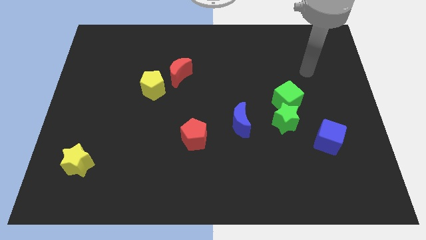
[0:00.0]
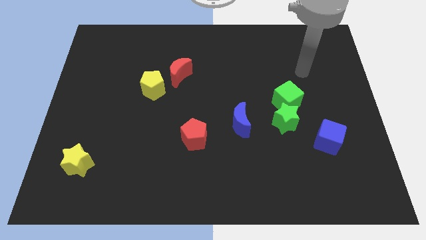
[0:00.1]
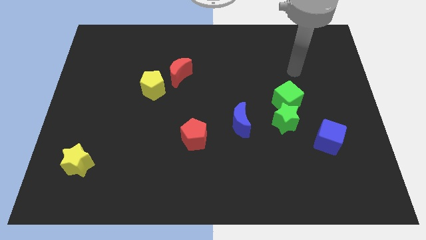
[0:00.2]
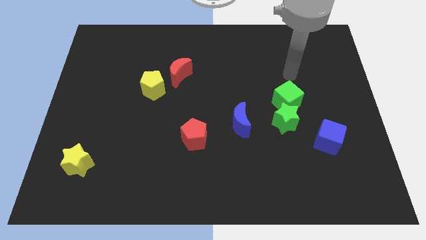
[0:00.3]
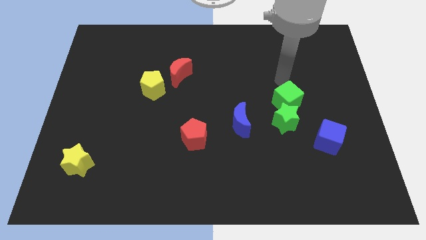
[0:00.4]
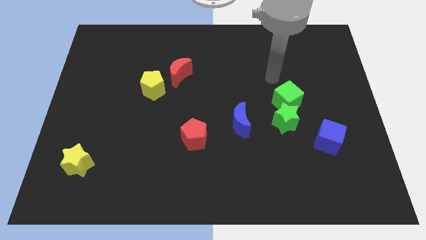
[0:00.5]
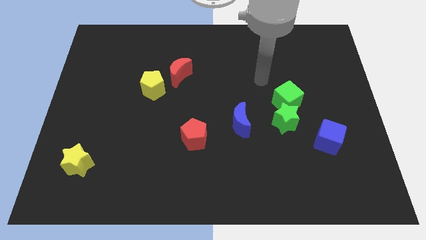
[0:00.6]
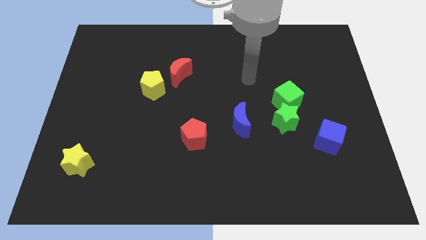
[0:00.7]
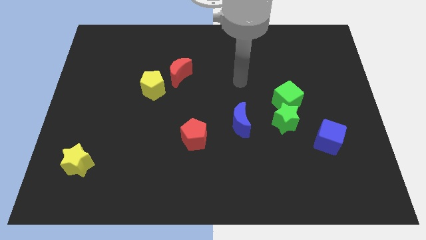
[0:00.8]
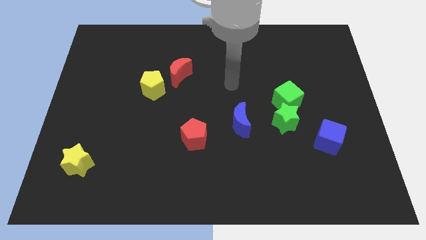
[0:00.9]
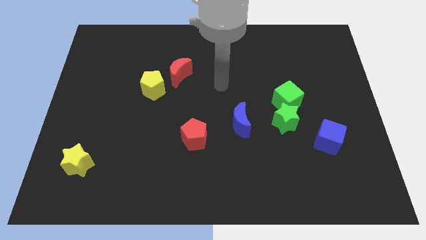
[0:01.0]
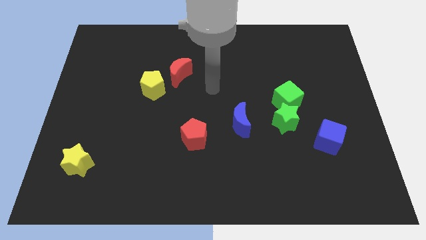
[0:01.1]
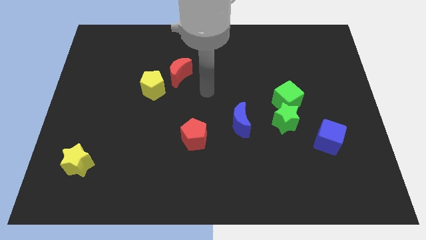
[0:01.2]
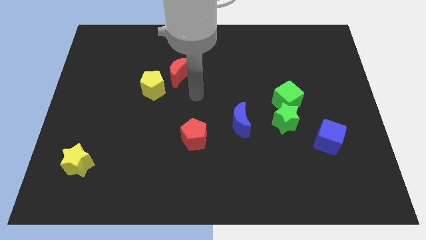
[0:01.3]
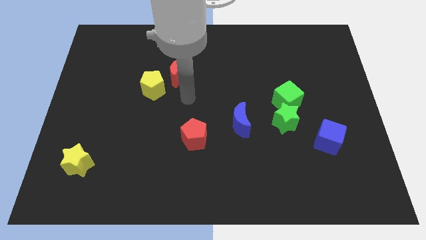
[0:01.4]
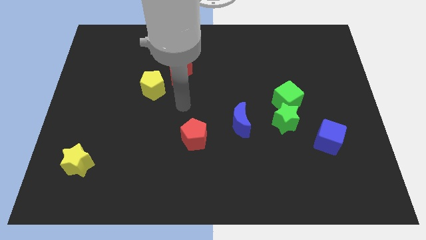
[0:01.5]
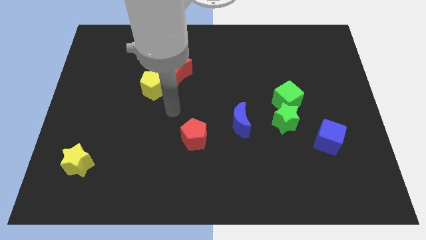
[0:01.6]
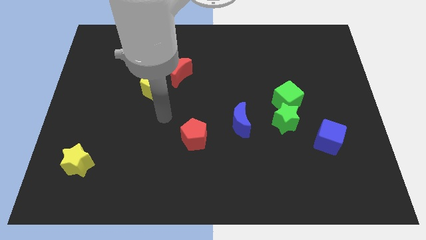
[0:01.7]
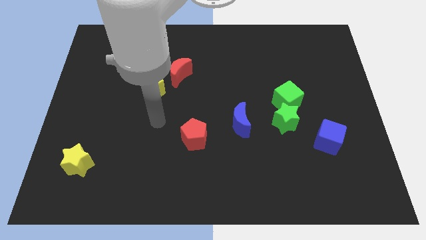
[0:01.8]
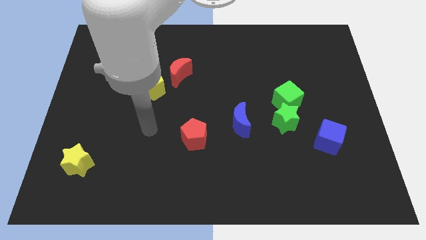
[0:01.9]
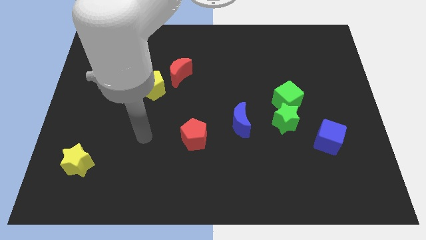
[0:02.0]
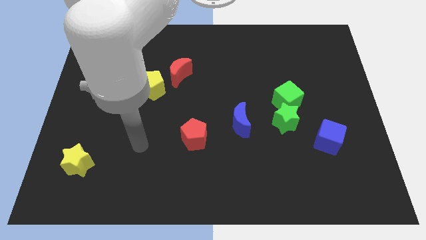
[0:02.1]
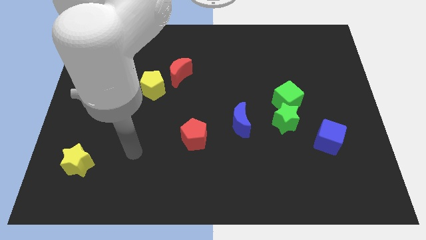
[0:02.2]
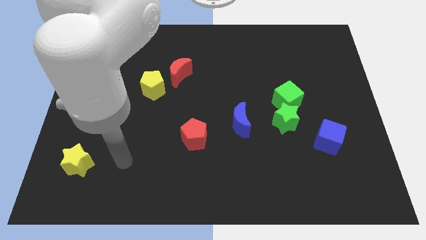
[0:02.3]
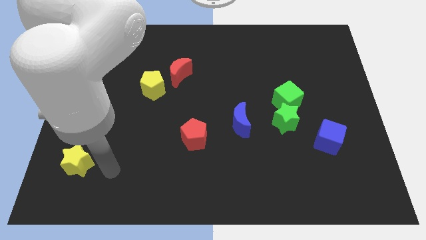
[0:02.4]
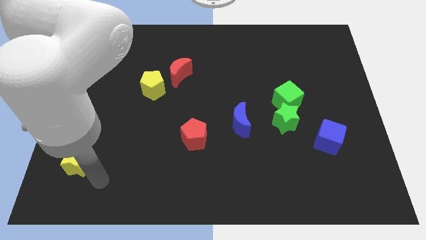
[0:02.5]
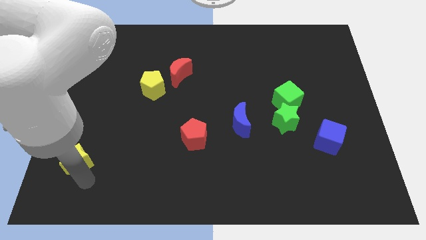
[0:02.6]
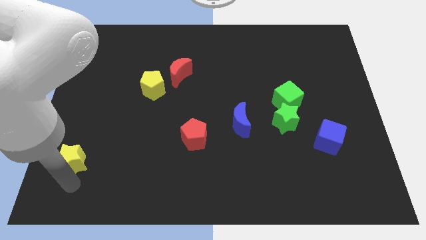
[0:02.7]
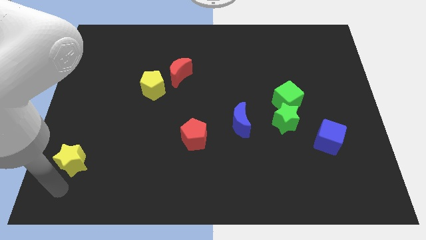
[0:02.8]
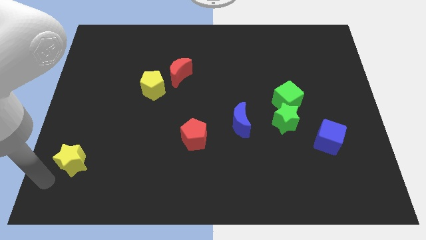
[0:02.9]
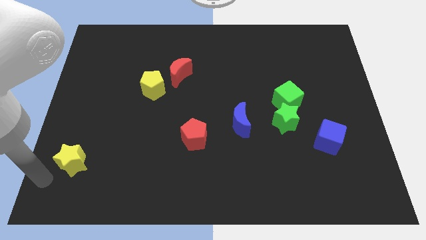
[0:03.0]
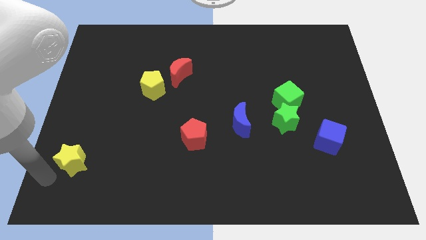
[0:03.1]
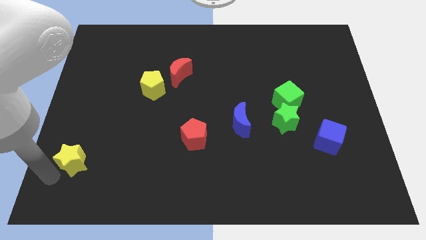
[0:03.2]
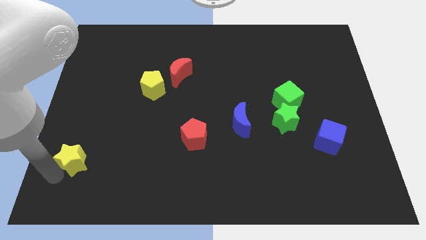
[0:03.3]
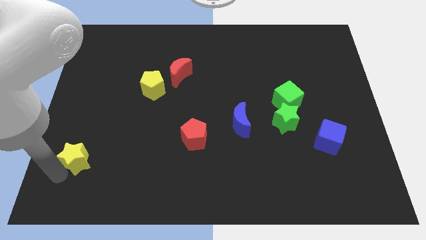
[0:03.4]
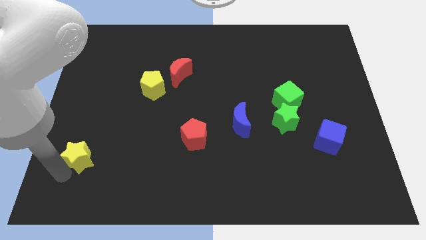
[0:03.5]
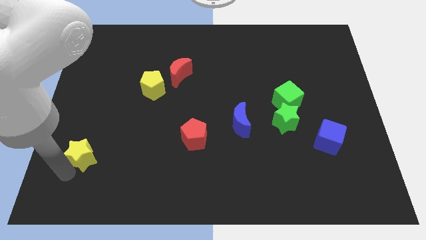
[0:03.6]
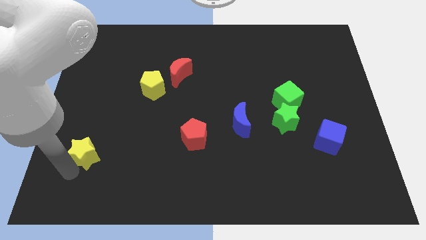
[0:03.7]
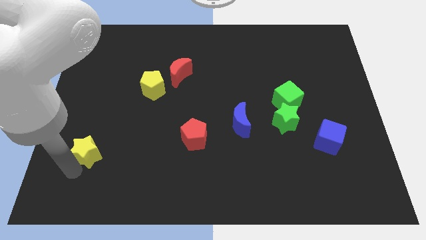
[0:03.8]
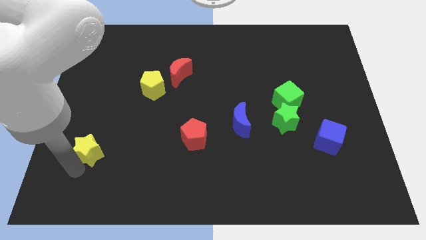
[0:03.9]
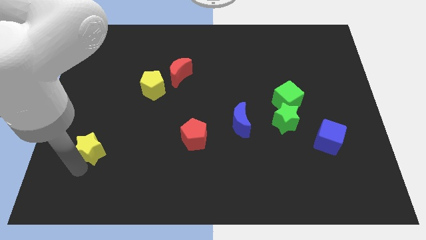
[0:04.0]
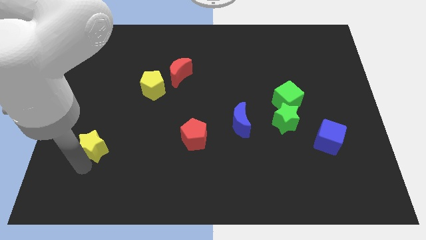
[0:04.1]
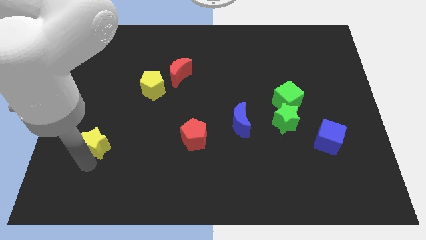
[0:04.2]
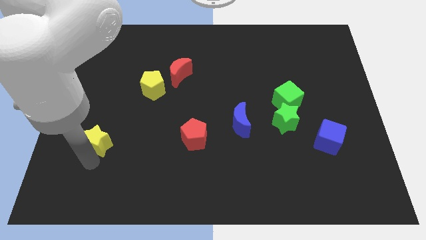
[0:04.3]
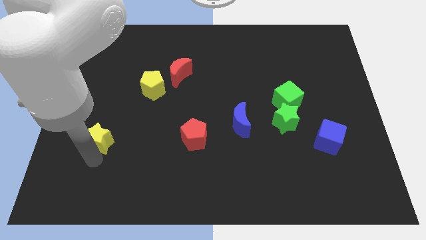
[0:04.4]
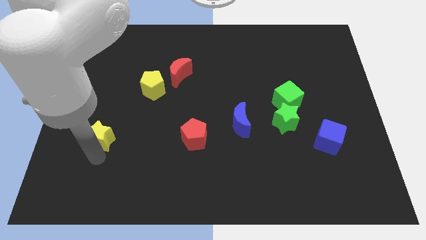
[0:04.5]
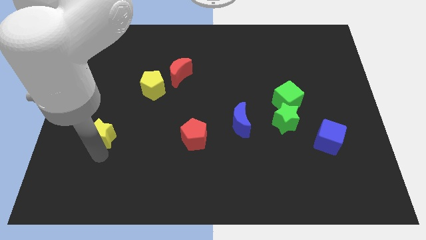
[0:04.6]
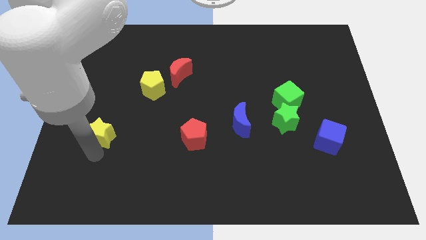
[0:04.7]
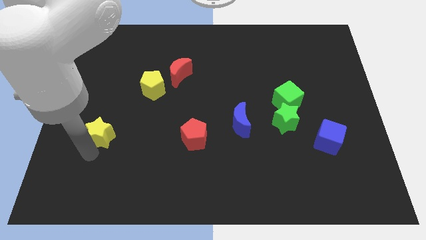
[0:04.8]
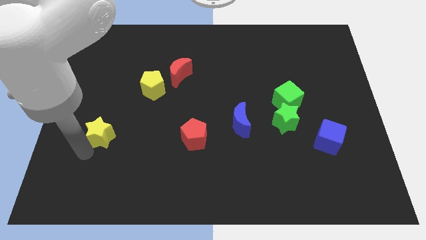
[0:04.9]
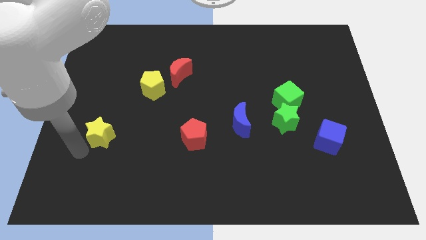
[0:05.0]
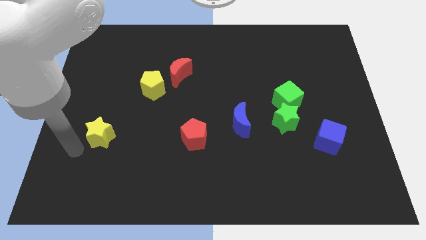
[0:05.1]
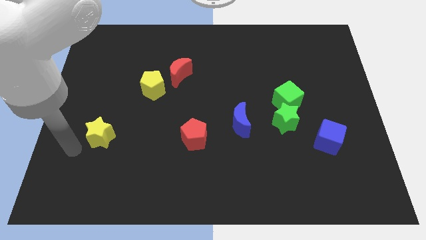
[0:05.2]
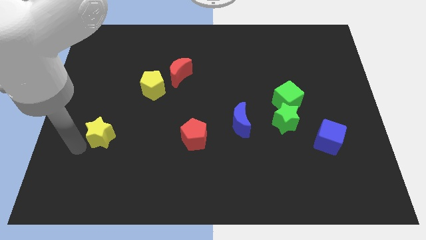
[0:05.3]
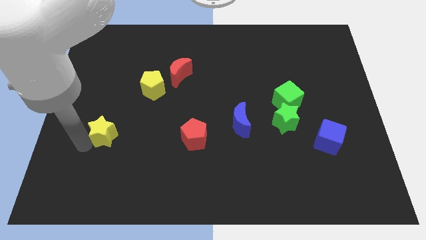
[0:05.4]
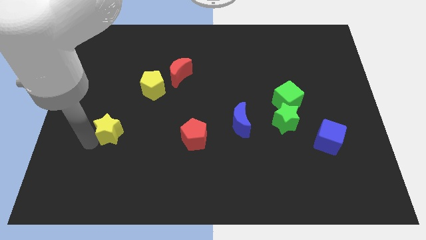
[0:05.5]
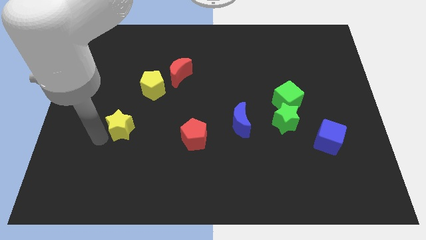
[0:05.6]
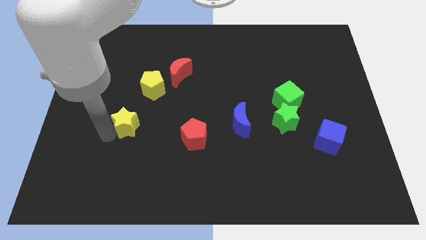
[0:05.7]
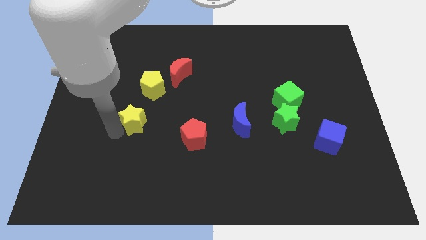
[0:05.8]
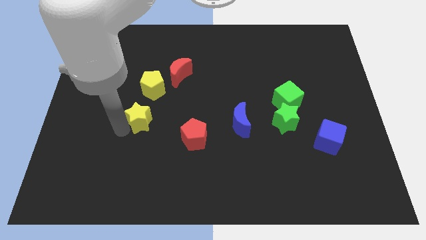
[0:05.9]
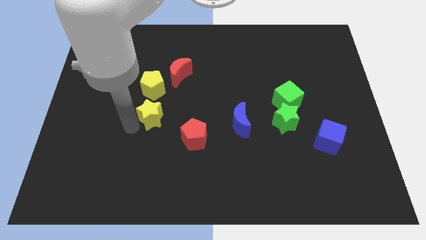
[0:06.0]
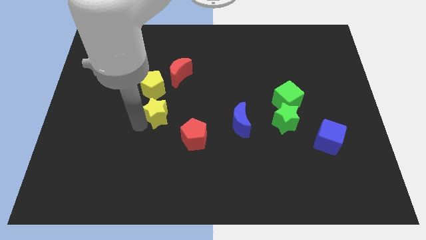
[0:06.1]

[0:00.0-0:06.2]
push the yellow star up and to the right

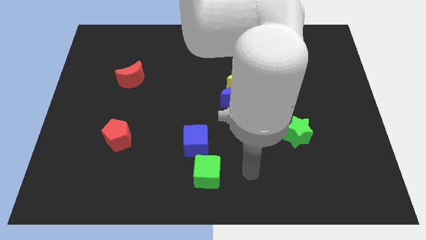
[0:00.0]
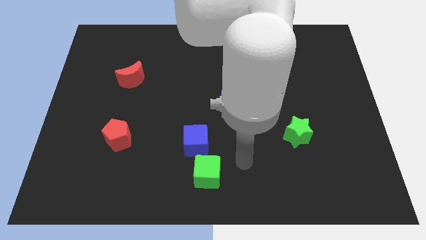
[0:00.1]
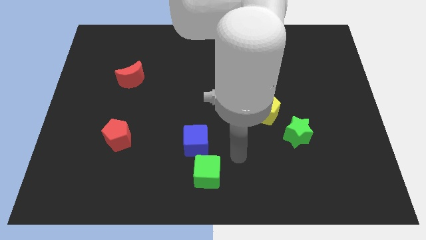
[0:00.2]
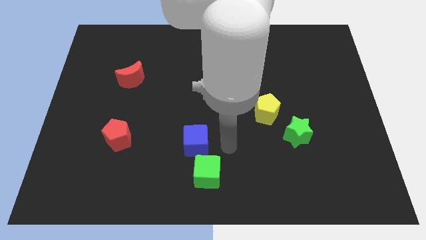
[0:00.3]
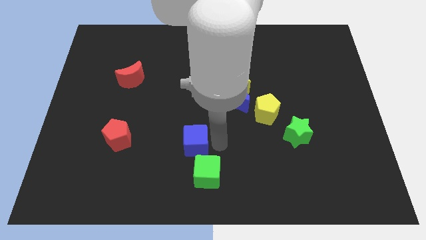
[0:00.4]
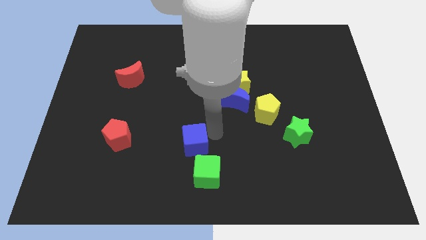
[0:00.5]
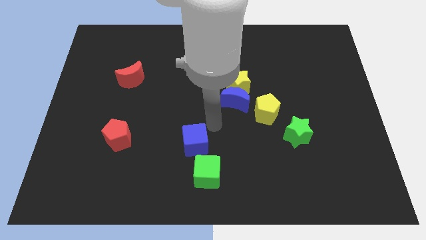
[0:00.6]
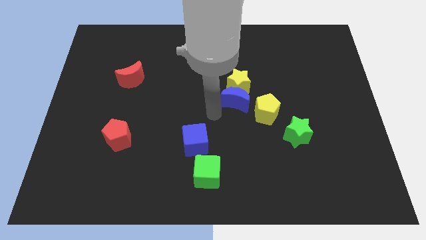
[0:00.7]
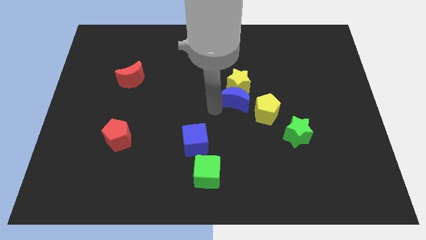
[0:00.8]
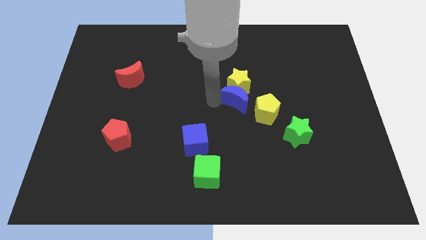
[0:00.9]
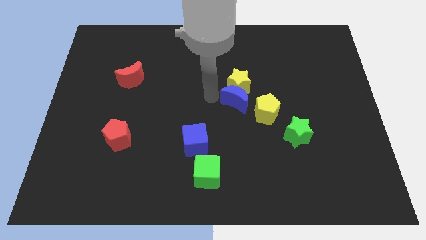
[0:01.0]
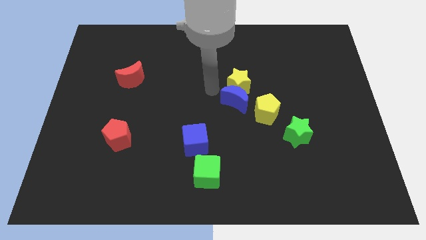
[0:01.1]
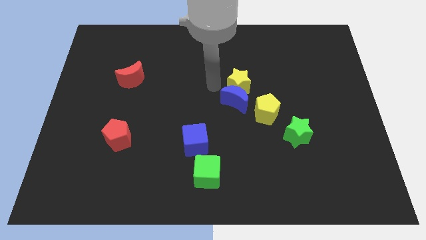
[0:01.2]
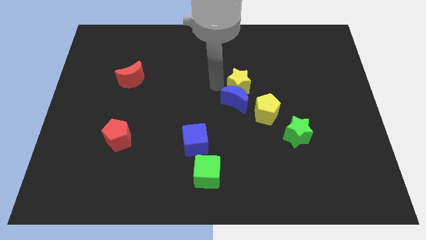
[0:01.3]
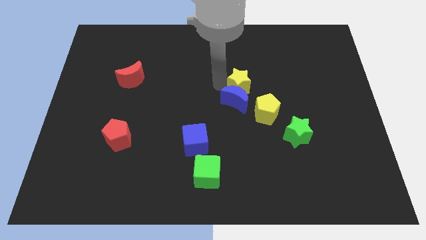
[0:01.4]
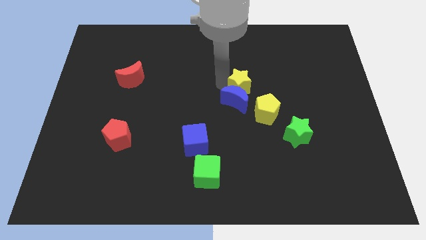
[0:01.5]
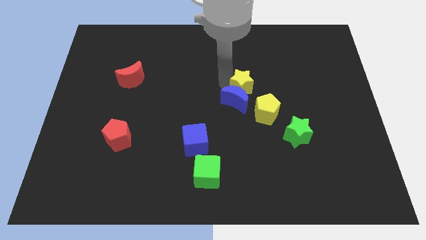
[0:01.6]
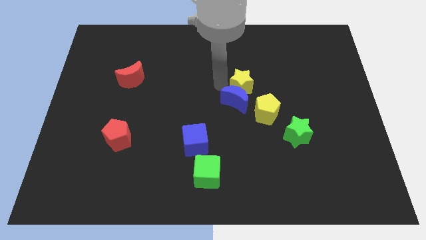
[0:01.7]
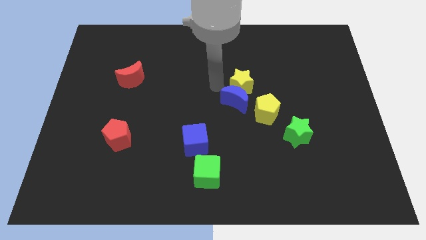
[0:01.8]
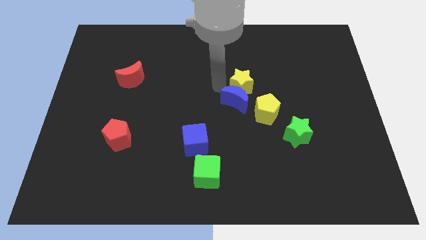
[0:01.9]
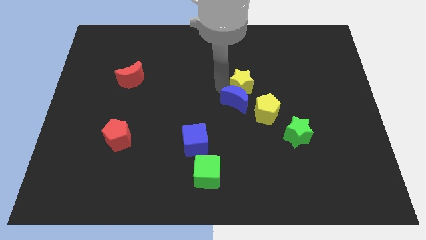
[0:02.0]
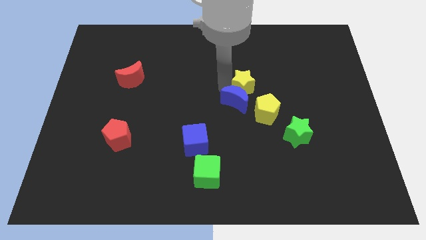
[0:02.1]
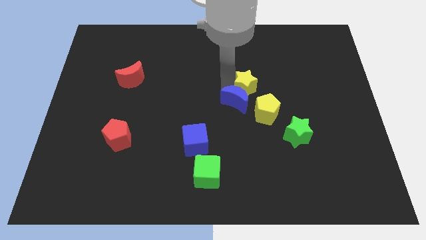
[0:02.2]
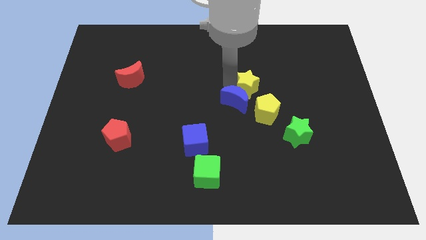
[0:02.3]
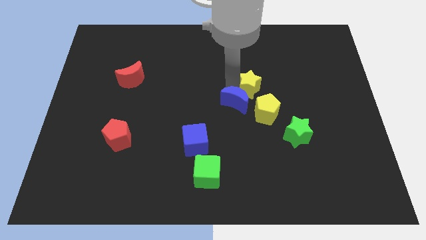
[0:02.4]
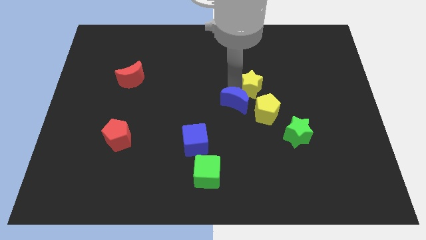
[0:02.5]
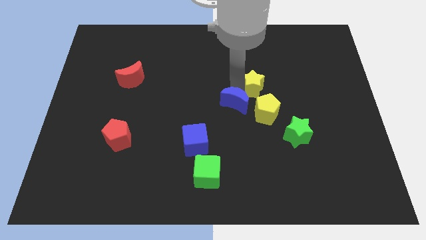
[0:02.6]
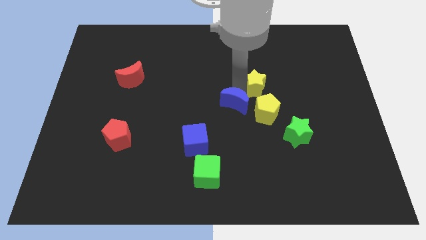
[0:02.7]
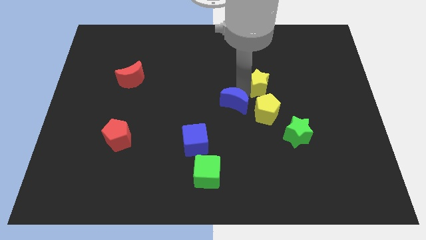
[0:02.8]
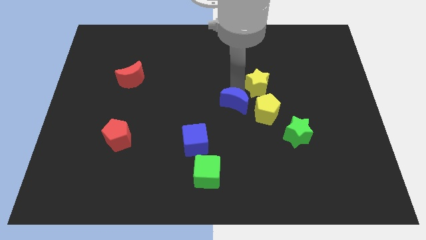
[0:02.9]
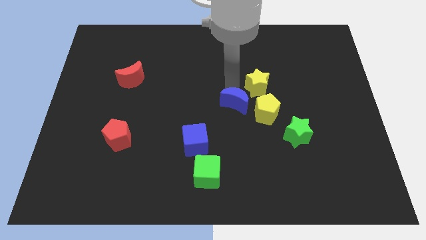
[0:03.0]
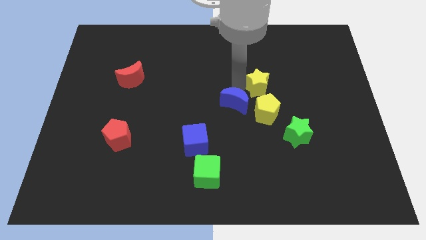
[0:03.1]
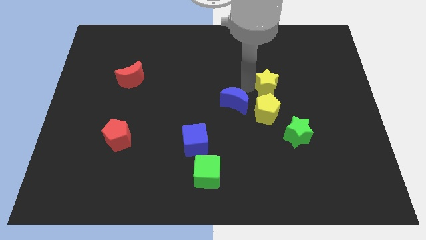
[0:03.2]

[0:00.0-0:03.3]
slide the yellow star right a little
